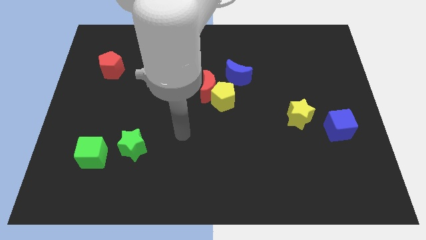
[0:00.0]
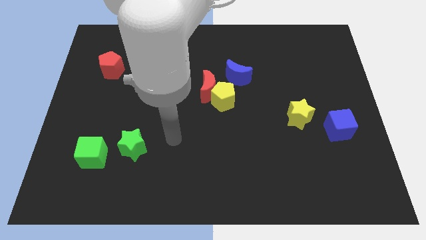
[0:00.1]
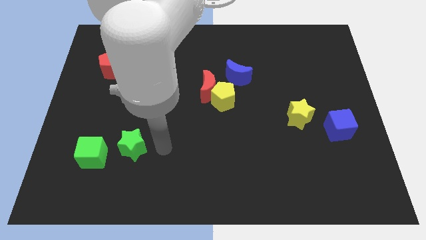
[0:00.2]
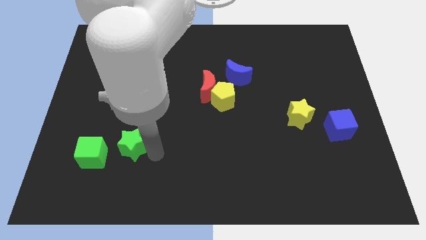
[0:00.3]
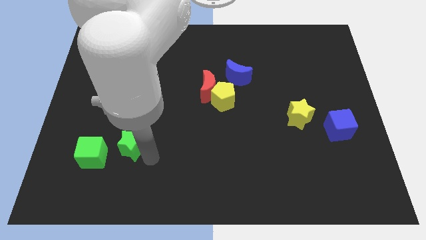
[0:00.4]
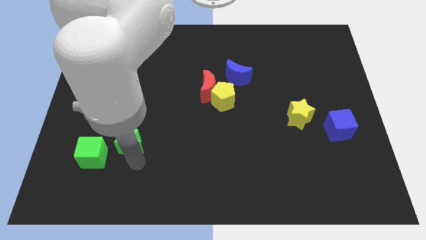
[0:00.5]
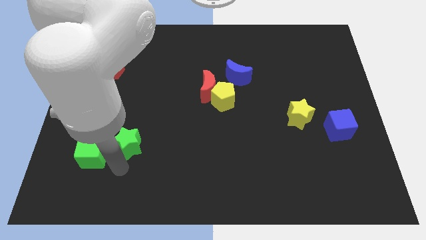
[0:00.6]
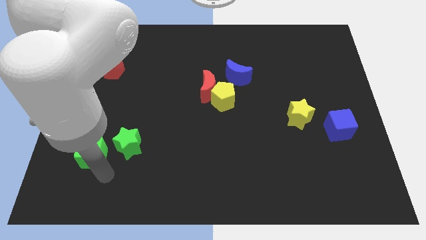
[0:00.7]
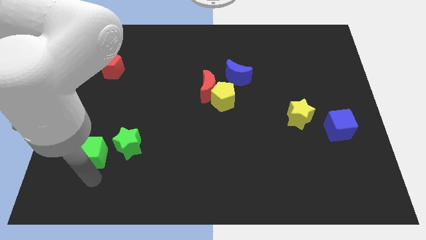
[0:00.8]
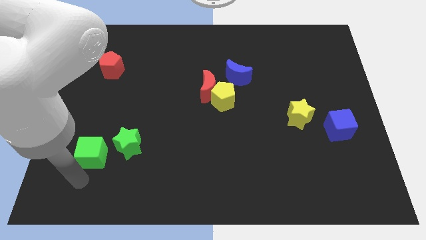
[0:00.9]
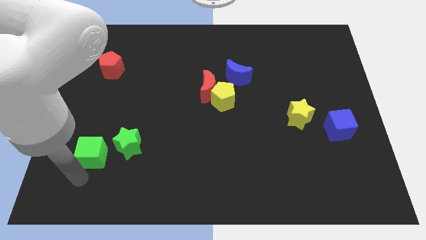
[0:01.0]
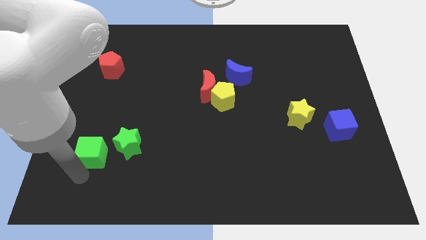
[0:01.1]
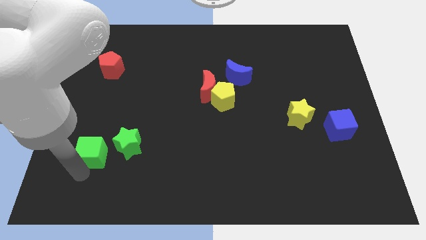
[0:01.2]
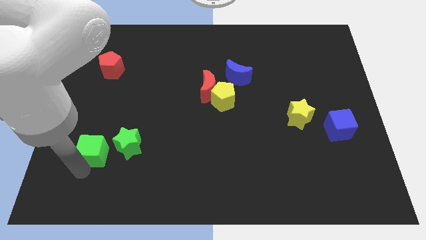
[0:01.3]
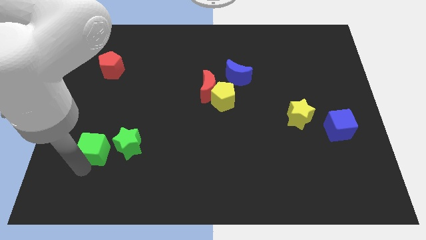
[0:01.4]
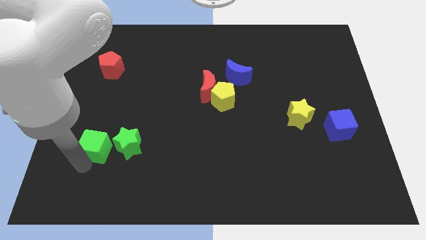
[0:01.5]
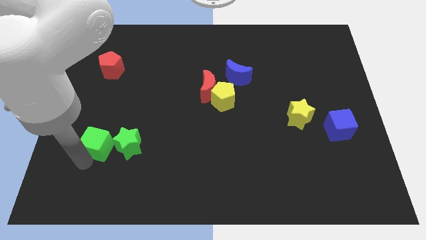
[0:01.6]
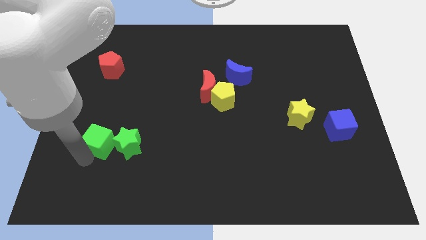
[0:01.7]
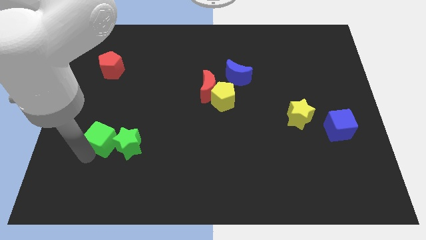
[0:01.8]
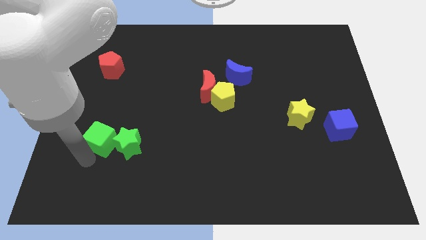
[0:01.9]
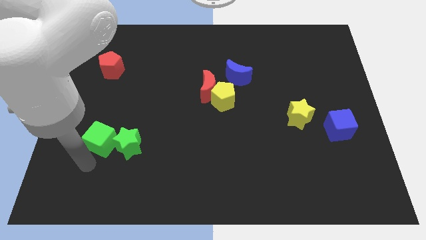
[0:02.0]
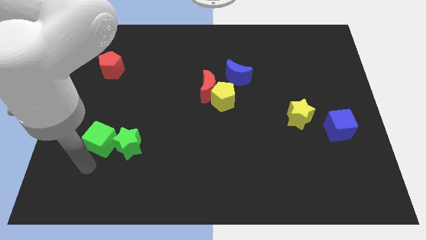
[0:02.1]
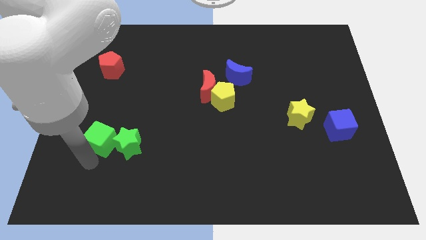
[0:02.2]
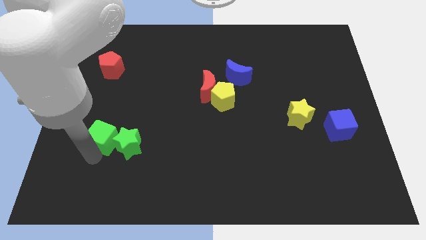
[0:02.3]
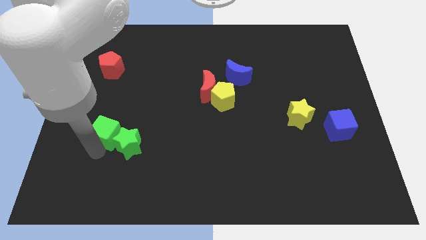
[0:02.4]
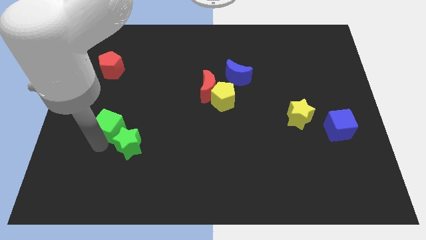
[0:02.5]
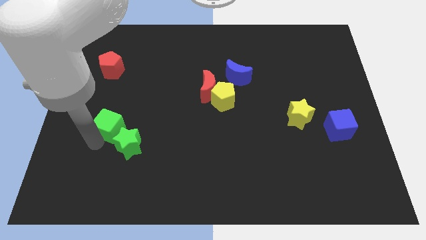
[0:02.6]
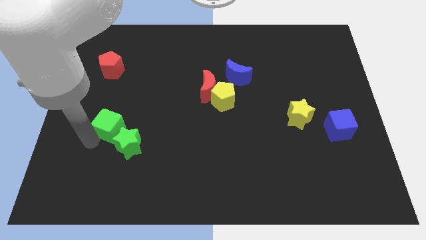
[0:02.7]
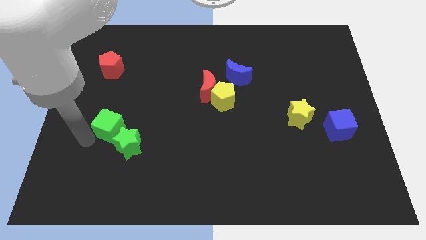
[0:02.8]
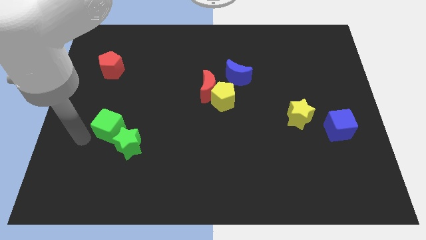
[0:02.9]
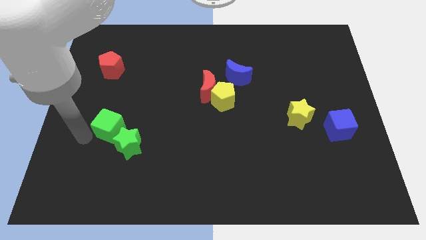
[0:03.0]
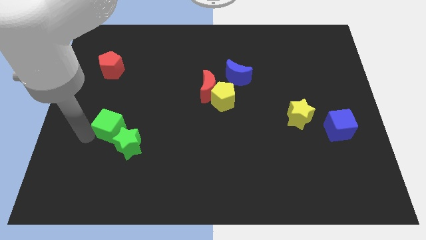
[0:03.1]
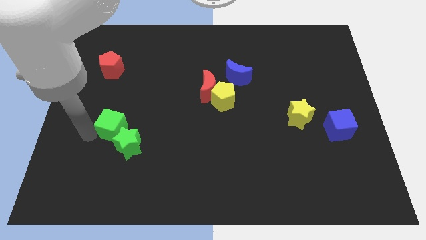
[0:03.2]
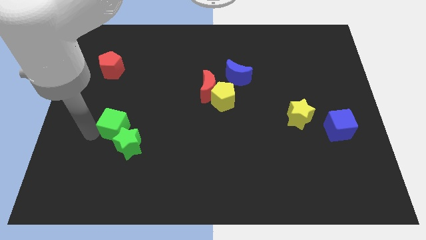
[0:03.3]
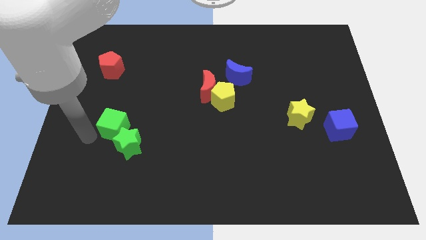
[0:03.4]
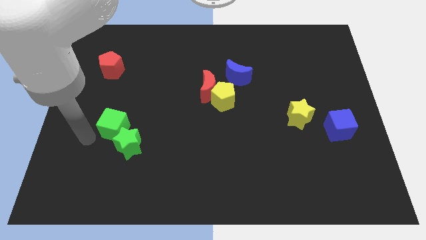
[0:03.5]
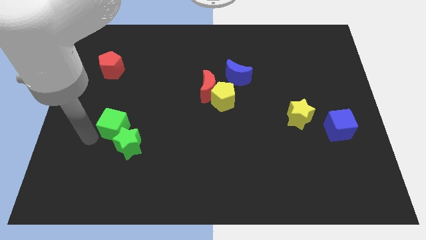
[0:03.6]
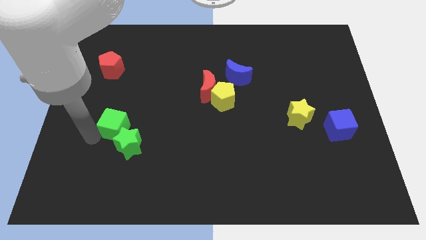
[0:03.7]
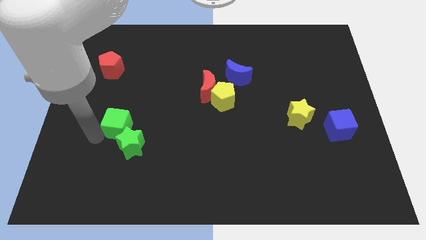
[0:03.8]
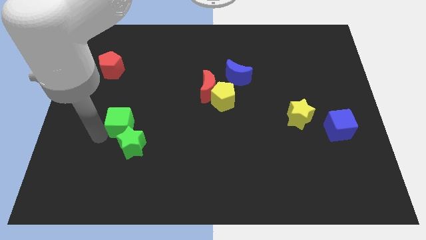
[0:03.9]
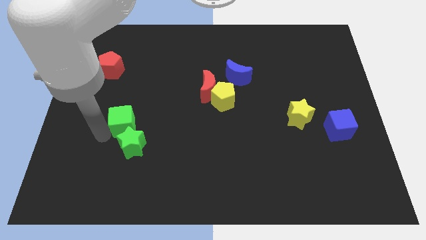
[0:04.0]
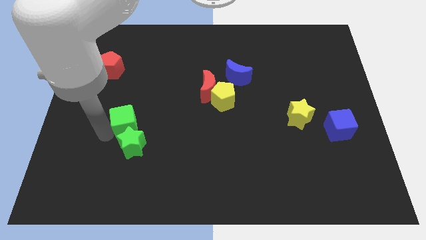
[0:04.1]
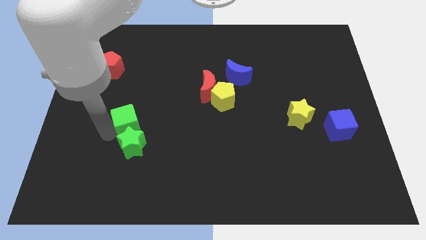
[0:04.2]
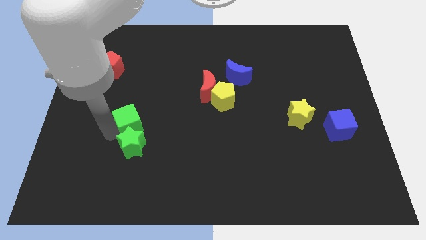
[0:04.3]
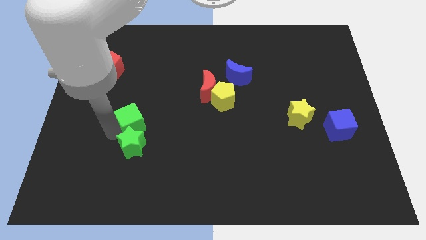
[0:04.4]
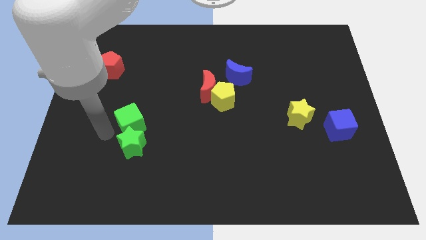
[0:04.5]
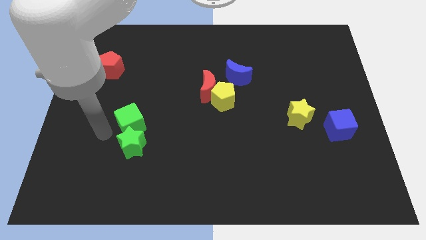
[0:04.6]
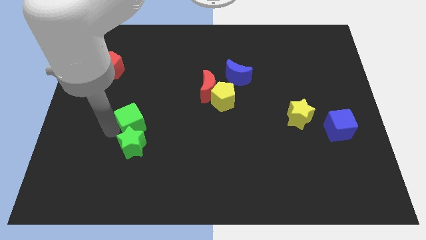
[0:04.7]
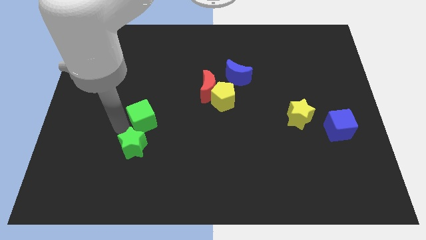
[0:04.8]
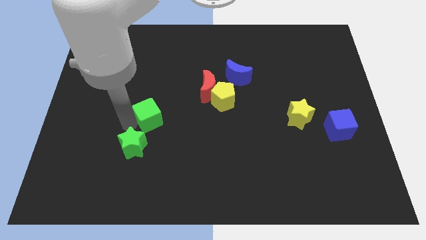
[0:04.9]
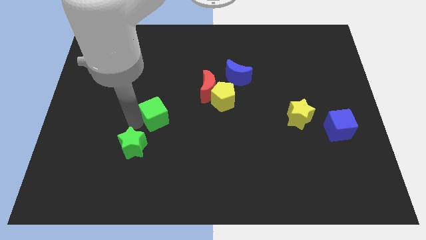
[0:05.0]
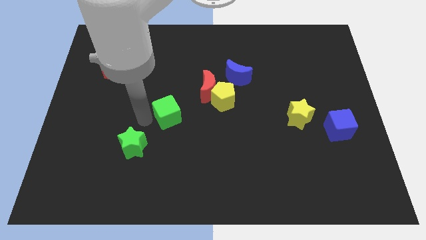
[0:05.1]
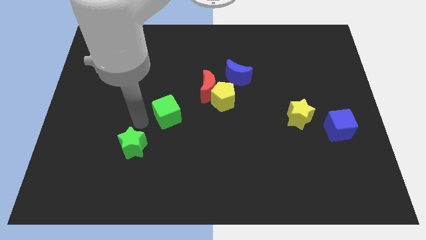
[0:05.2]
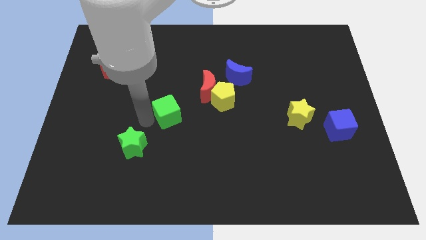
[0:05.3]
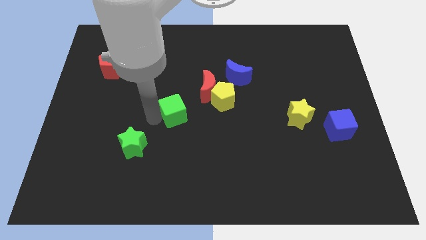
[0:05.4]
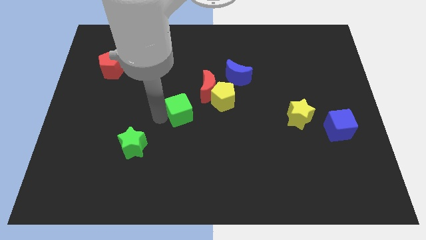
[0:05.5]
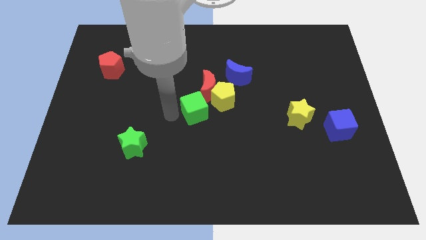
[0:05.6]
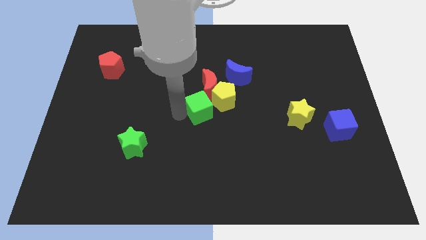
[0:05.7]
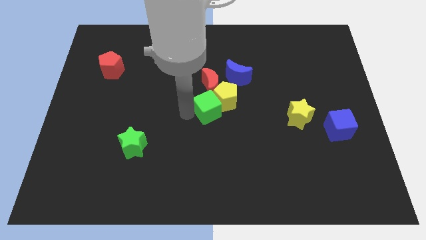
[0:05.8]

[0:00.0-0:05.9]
push the green cube close to the yellow pentagon

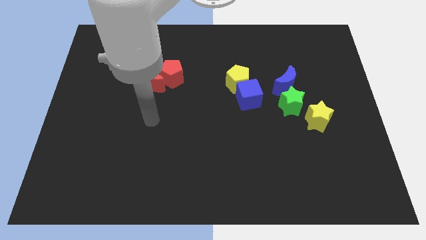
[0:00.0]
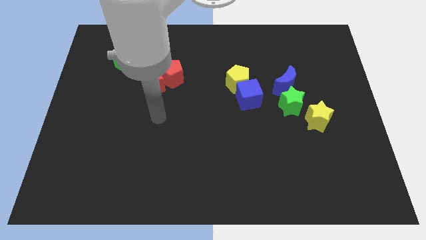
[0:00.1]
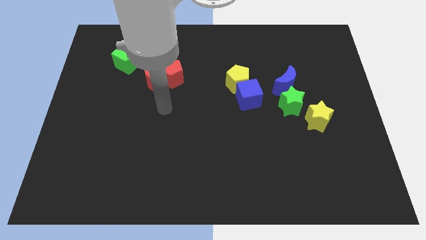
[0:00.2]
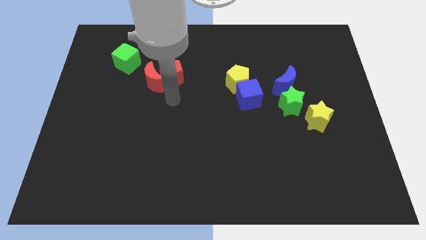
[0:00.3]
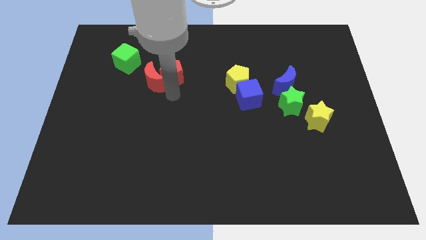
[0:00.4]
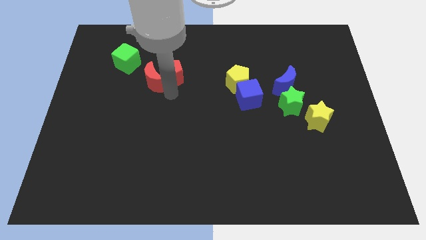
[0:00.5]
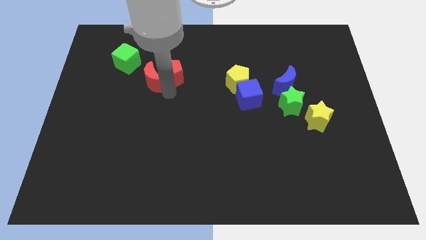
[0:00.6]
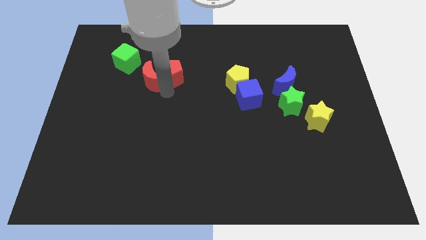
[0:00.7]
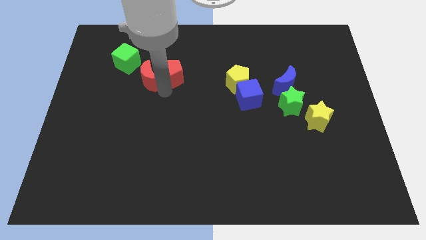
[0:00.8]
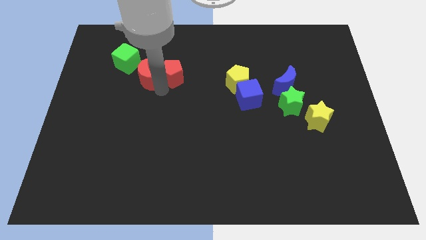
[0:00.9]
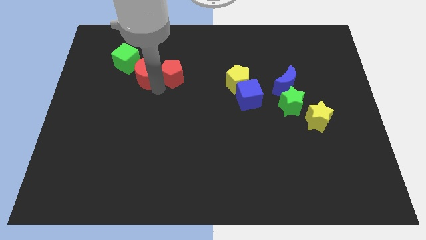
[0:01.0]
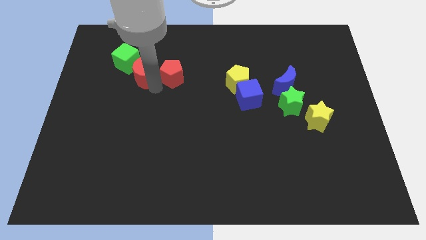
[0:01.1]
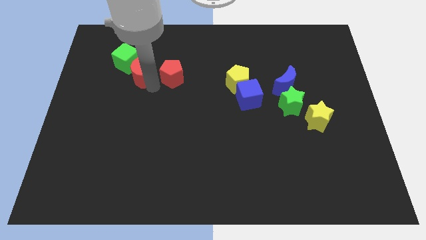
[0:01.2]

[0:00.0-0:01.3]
put the red moon next to the green cube
